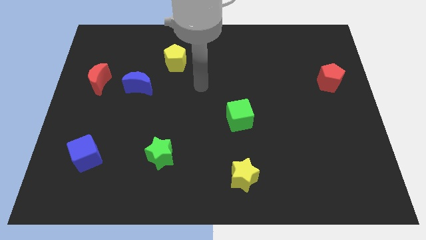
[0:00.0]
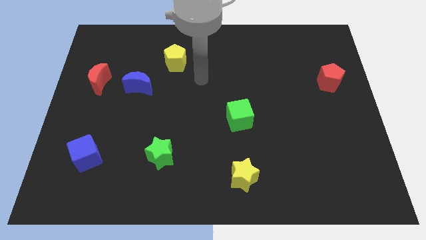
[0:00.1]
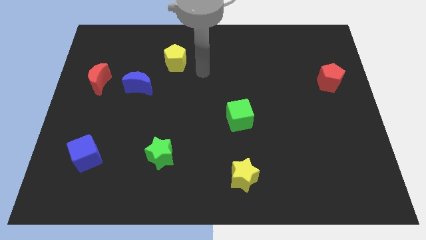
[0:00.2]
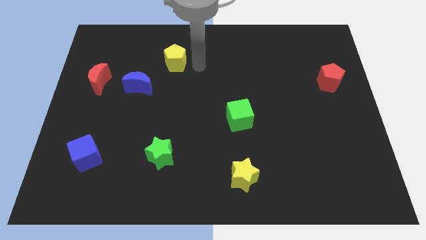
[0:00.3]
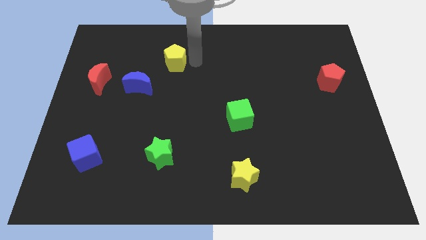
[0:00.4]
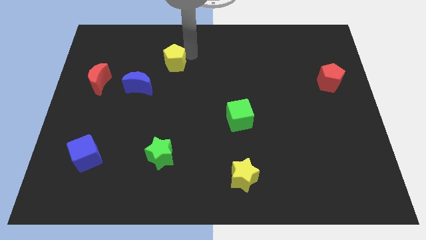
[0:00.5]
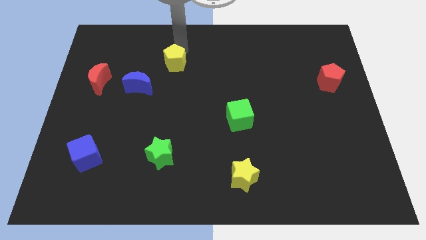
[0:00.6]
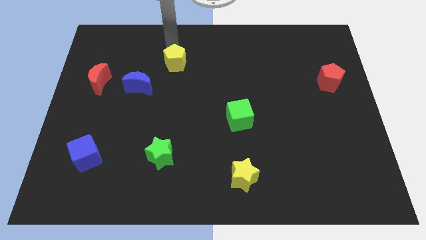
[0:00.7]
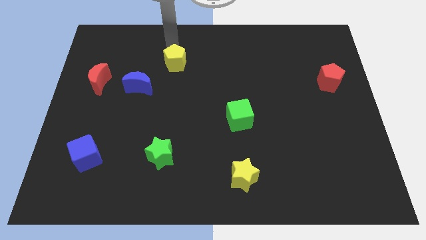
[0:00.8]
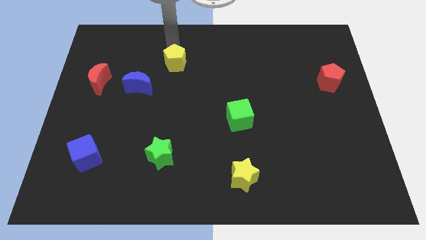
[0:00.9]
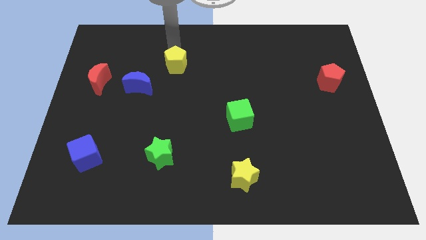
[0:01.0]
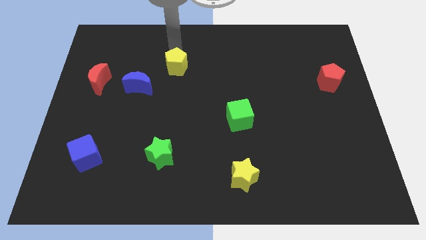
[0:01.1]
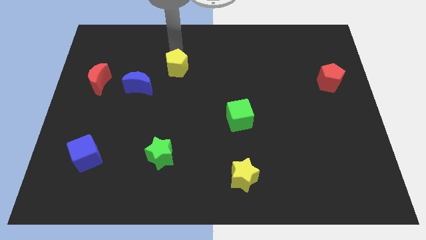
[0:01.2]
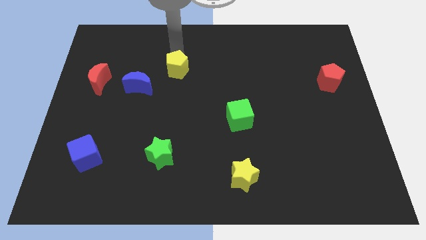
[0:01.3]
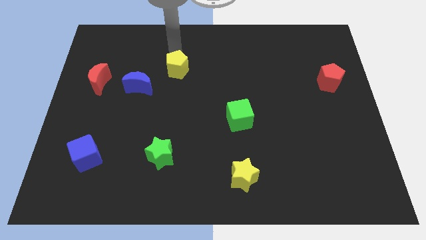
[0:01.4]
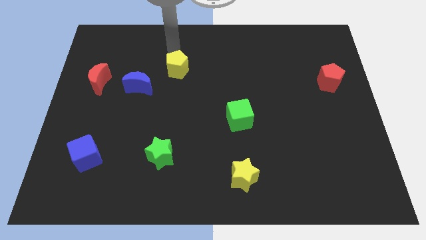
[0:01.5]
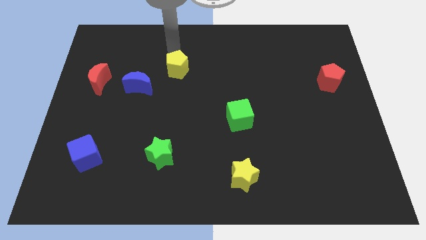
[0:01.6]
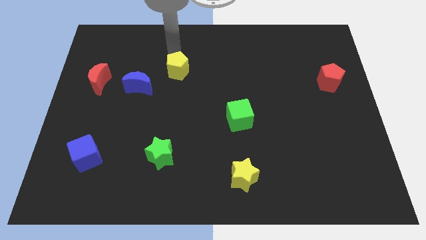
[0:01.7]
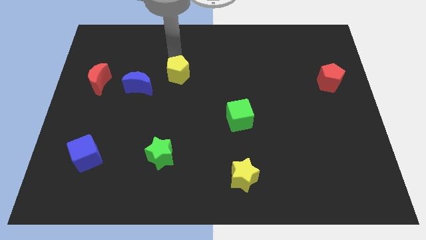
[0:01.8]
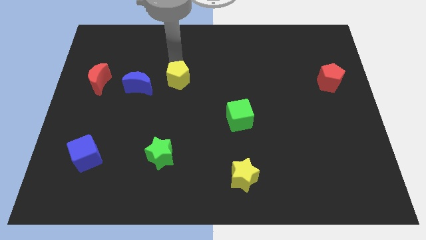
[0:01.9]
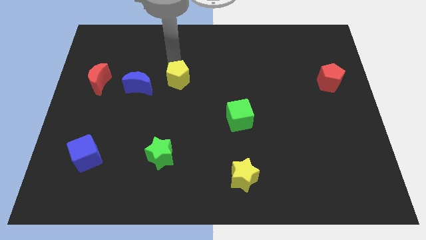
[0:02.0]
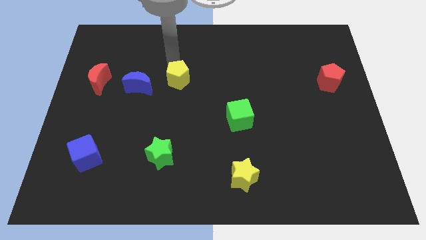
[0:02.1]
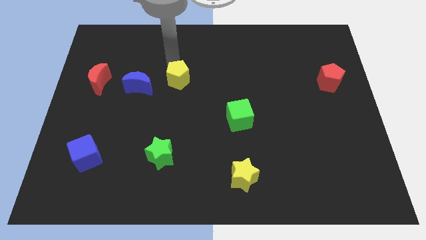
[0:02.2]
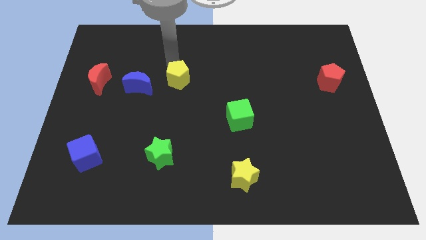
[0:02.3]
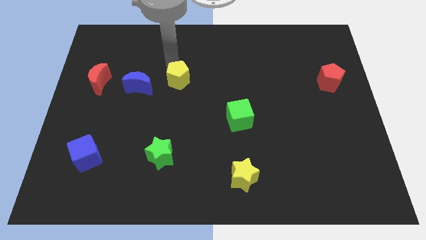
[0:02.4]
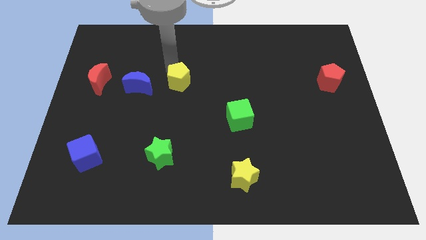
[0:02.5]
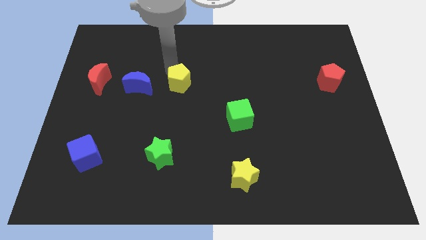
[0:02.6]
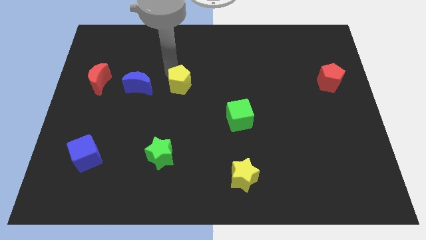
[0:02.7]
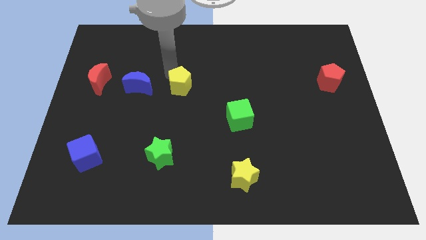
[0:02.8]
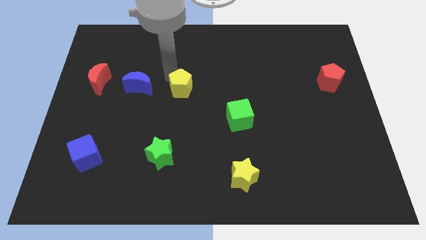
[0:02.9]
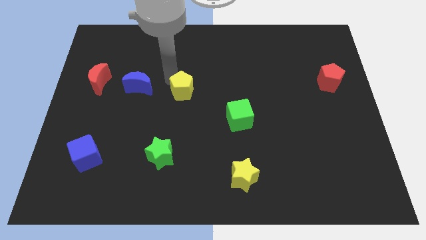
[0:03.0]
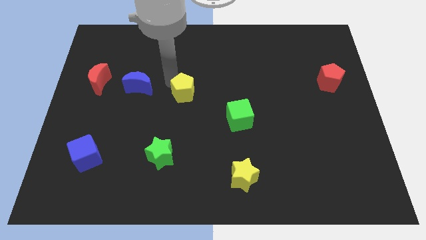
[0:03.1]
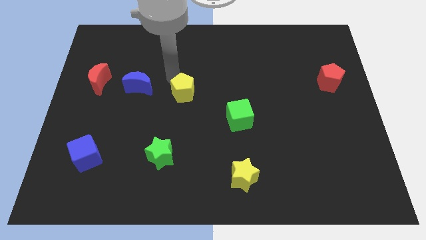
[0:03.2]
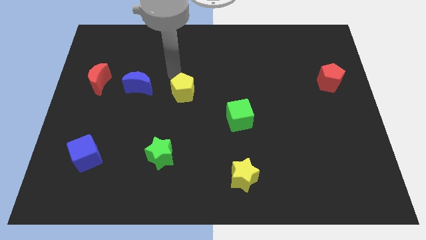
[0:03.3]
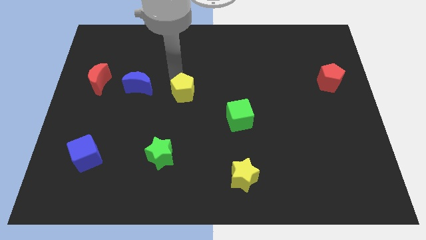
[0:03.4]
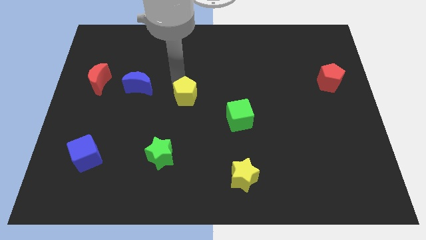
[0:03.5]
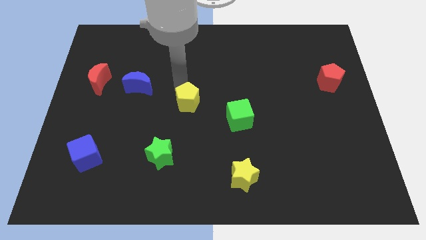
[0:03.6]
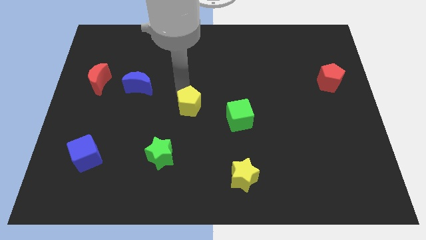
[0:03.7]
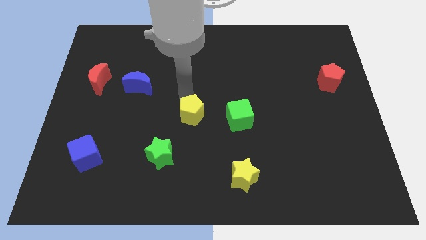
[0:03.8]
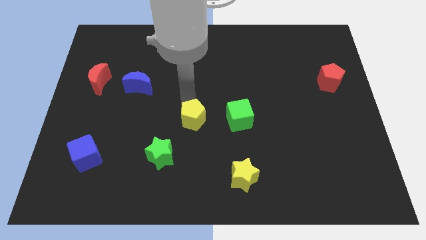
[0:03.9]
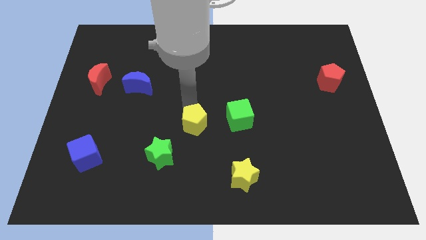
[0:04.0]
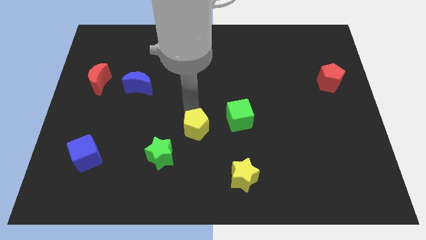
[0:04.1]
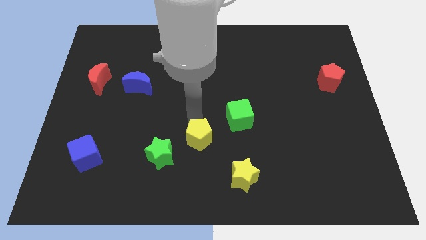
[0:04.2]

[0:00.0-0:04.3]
move the yellow pentagon down

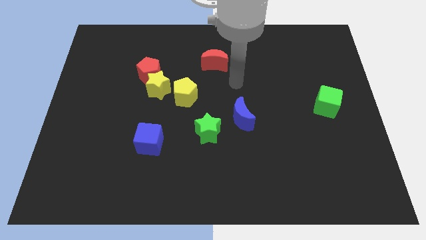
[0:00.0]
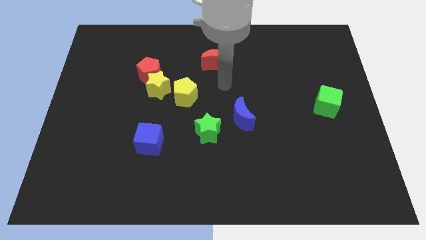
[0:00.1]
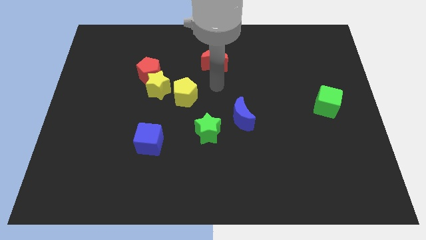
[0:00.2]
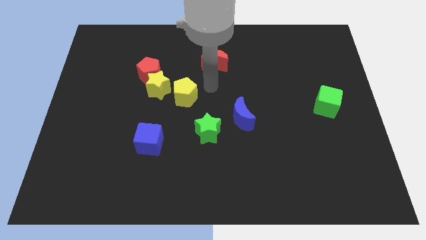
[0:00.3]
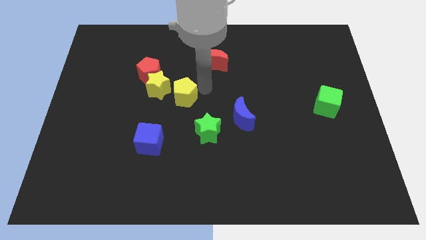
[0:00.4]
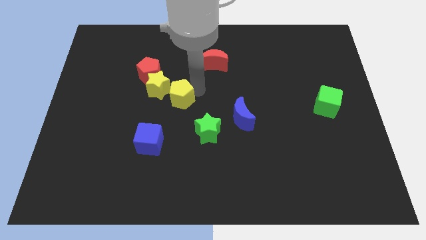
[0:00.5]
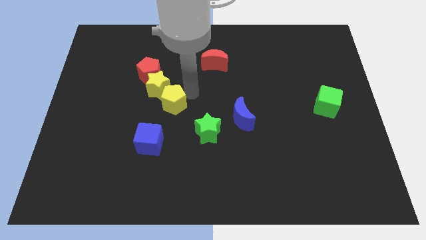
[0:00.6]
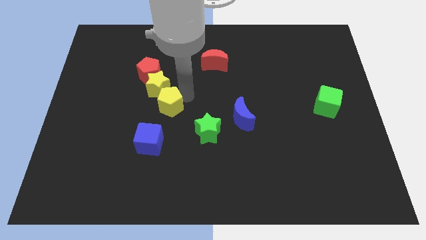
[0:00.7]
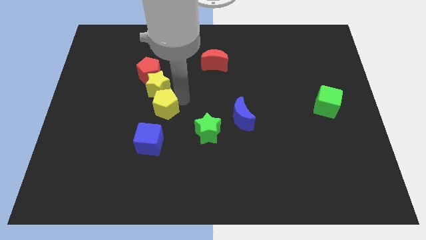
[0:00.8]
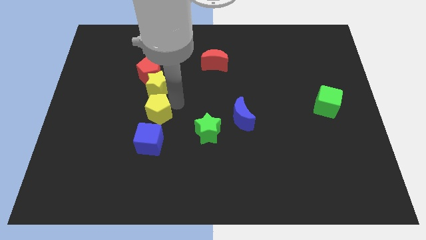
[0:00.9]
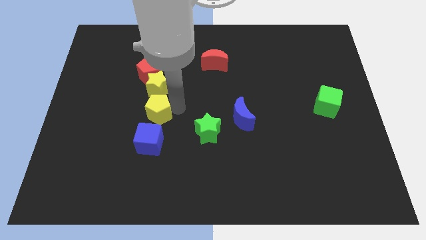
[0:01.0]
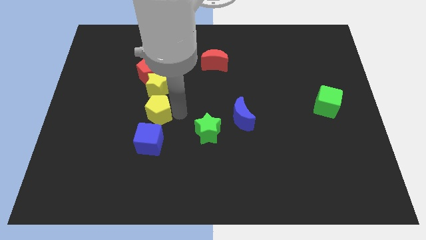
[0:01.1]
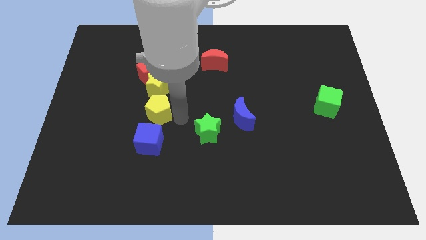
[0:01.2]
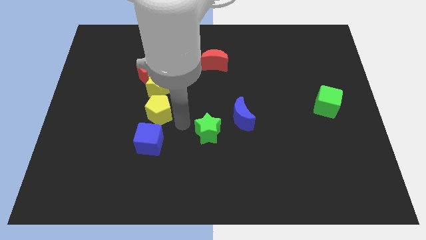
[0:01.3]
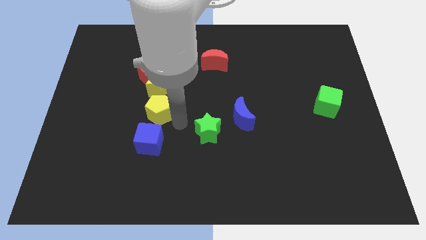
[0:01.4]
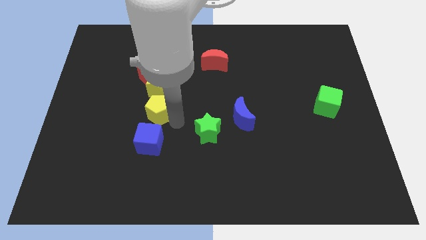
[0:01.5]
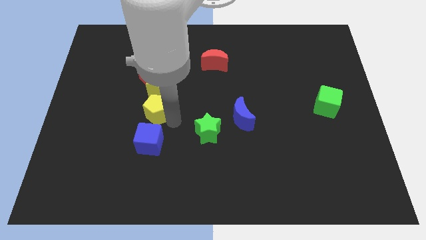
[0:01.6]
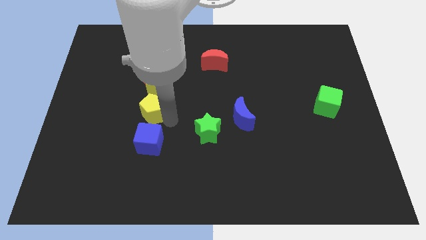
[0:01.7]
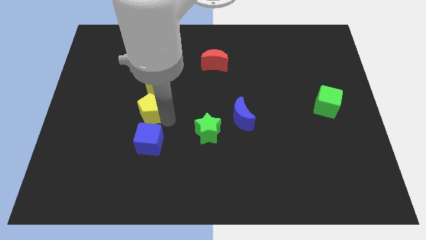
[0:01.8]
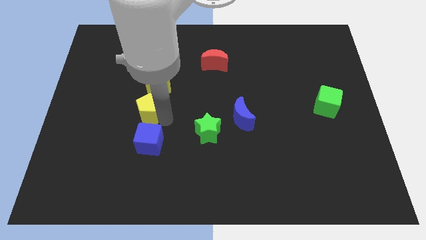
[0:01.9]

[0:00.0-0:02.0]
slightly push the yellow pentagon left

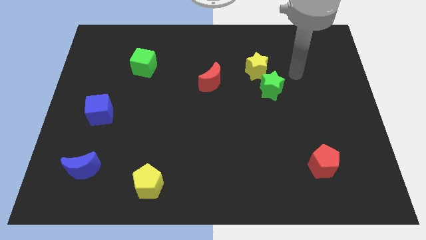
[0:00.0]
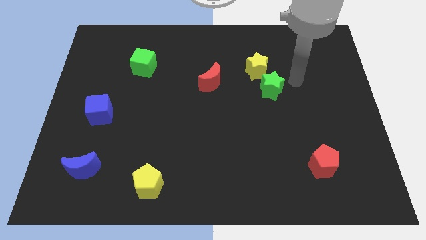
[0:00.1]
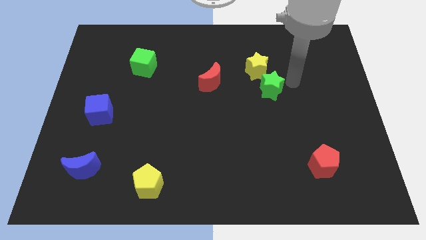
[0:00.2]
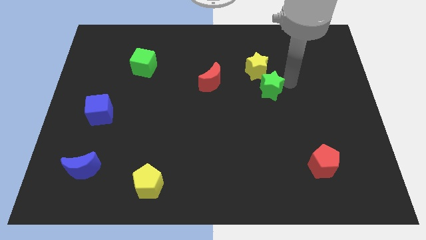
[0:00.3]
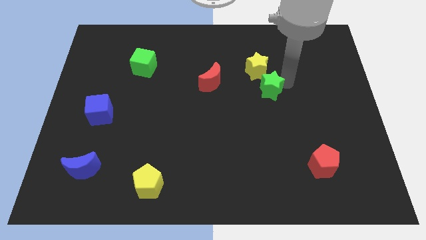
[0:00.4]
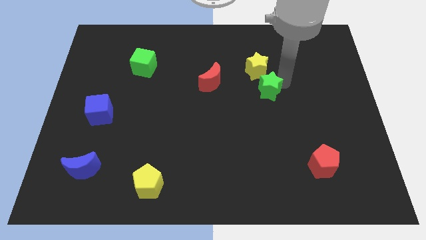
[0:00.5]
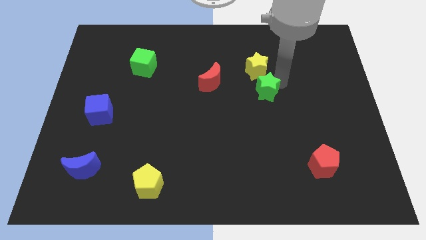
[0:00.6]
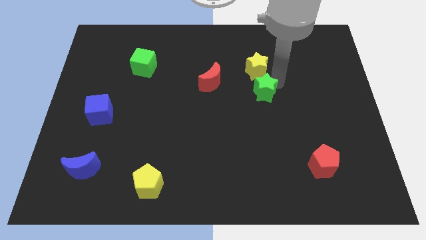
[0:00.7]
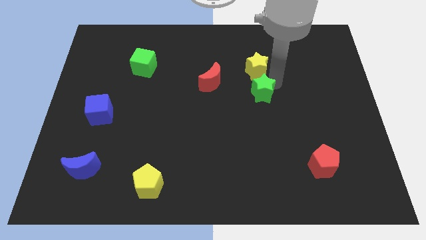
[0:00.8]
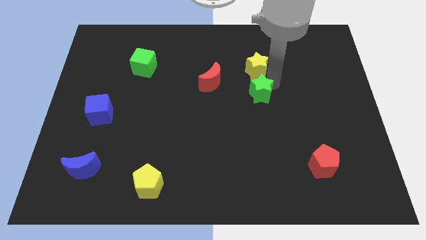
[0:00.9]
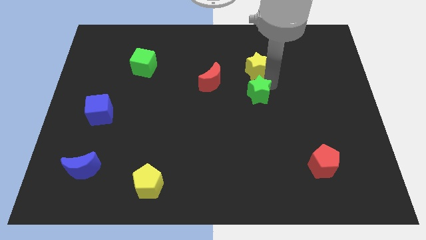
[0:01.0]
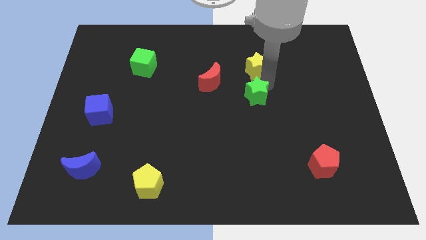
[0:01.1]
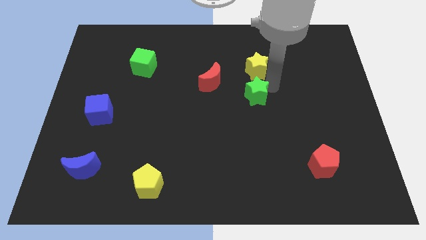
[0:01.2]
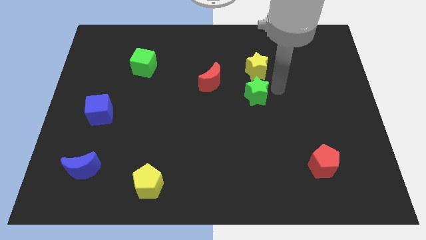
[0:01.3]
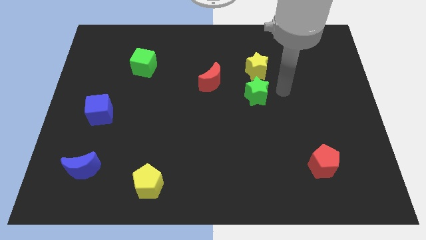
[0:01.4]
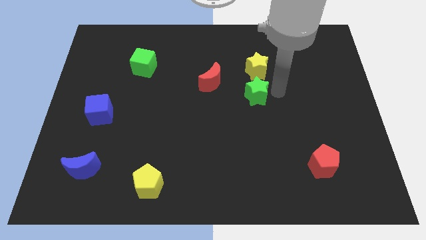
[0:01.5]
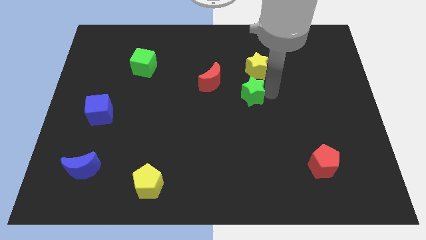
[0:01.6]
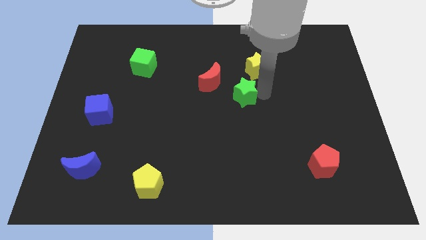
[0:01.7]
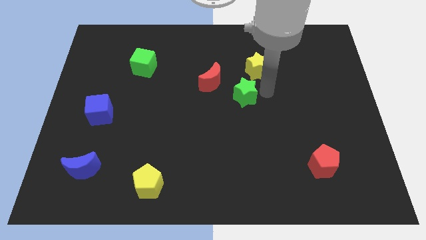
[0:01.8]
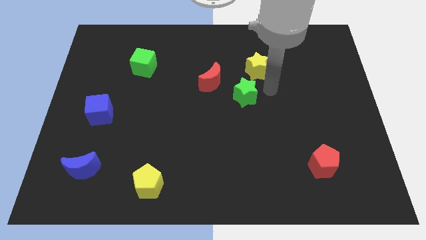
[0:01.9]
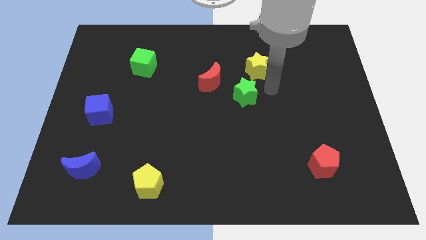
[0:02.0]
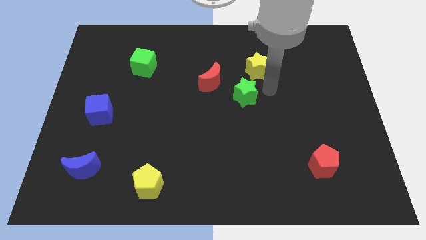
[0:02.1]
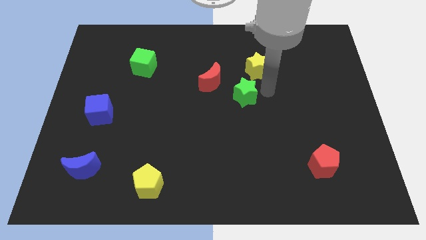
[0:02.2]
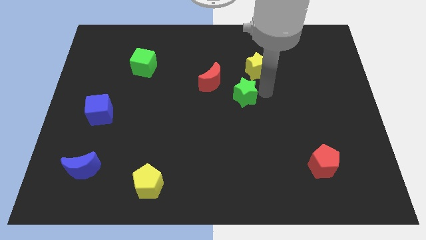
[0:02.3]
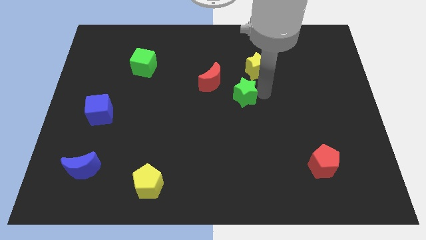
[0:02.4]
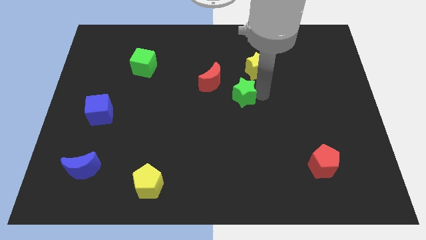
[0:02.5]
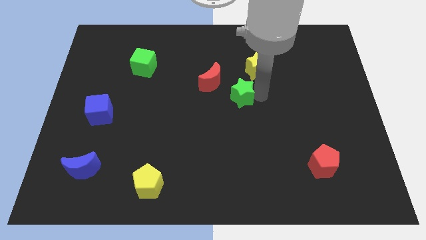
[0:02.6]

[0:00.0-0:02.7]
slide the green star left a little
